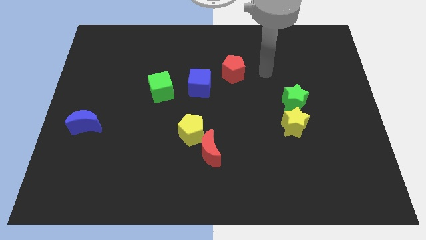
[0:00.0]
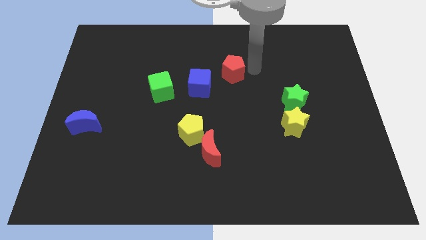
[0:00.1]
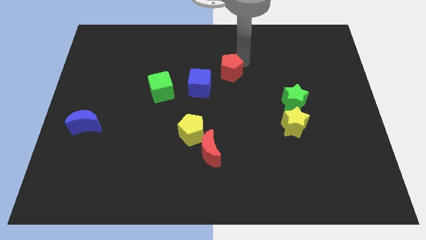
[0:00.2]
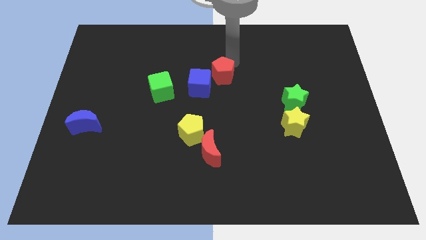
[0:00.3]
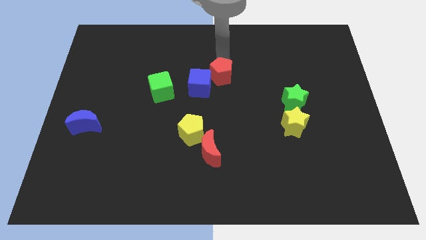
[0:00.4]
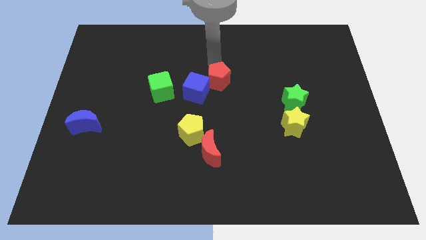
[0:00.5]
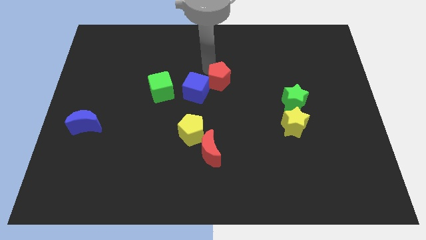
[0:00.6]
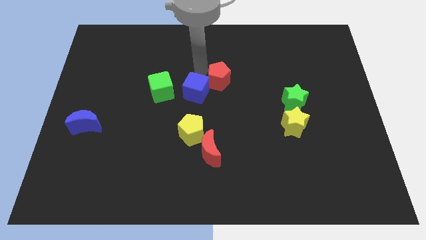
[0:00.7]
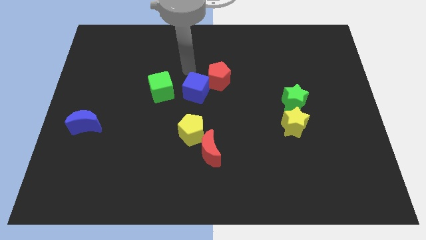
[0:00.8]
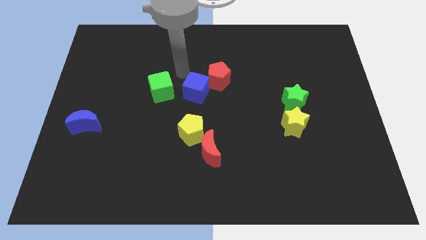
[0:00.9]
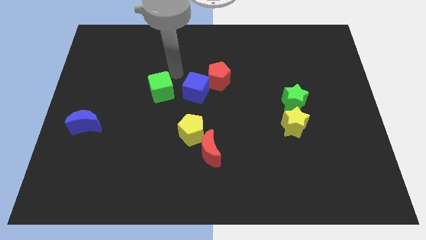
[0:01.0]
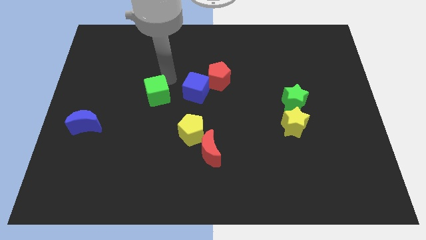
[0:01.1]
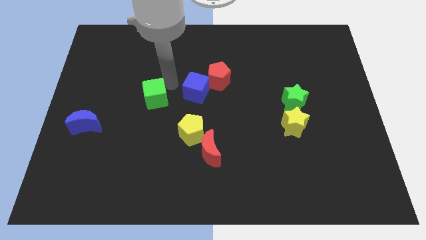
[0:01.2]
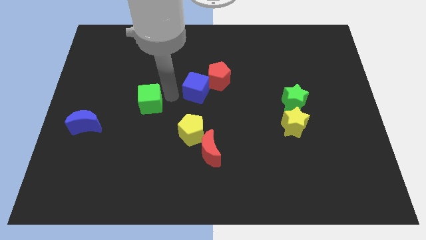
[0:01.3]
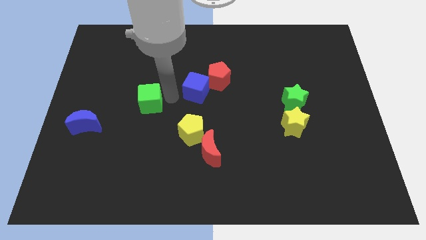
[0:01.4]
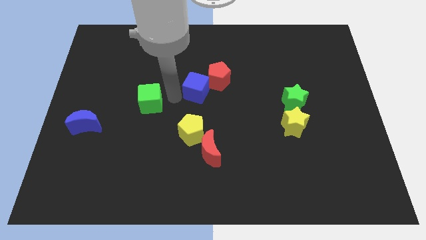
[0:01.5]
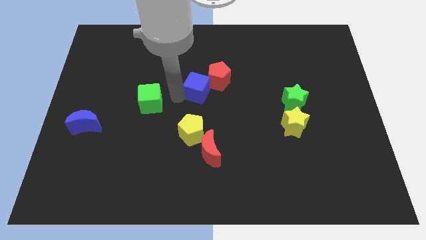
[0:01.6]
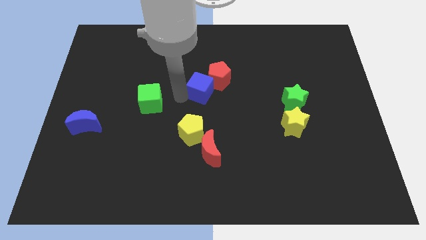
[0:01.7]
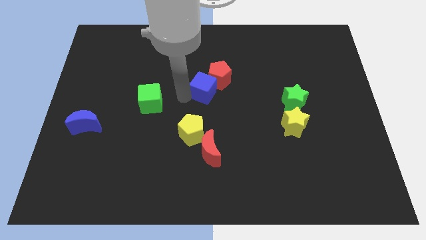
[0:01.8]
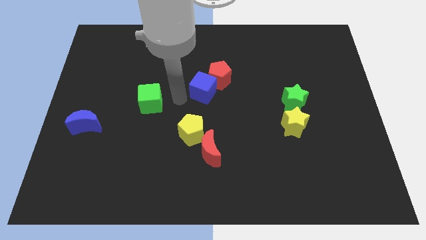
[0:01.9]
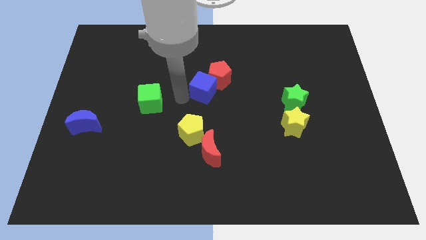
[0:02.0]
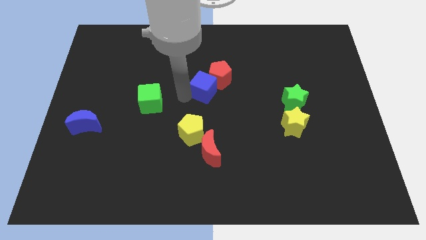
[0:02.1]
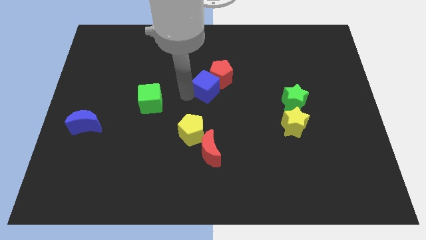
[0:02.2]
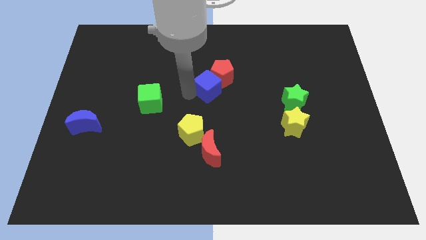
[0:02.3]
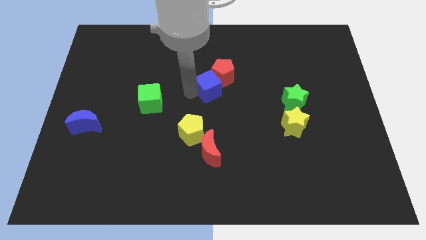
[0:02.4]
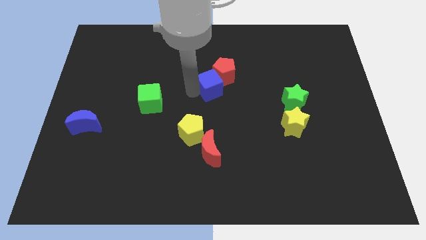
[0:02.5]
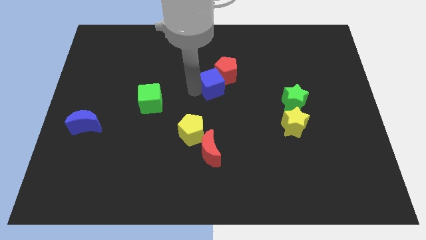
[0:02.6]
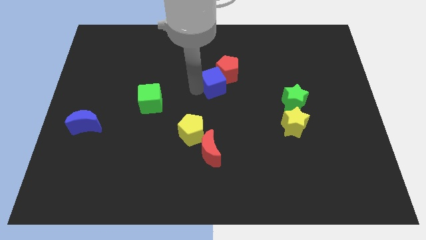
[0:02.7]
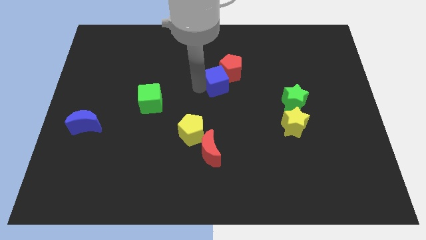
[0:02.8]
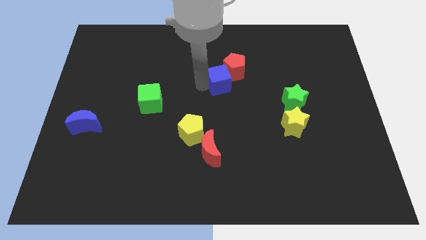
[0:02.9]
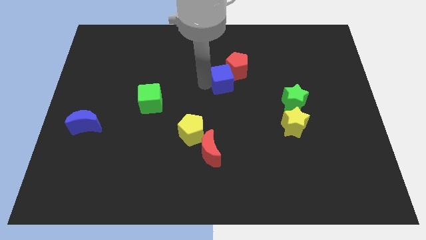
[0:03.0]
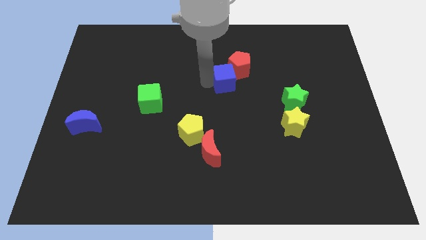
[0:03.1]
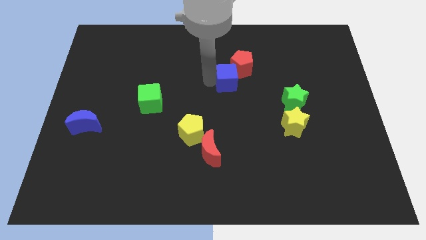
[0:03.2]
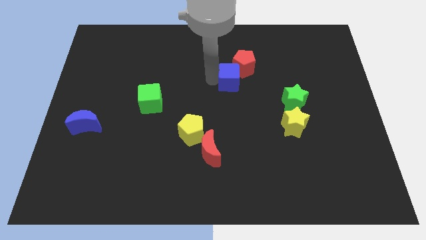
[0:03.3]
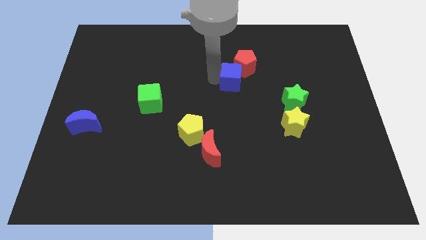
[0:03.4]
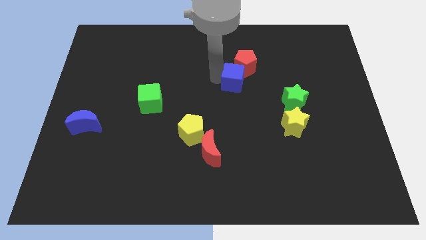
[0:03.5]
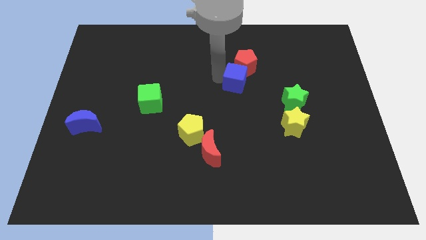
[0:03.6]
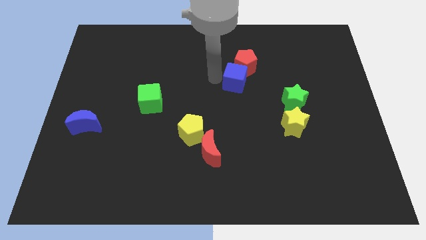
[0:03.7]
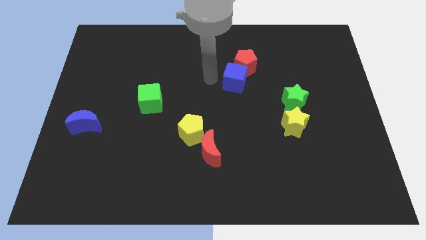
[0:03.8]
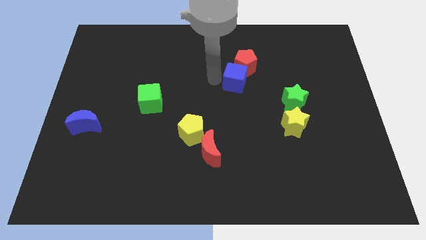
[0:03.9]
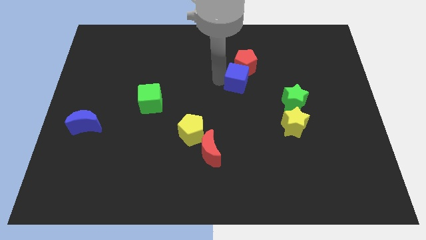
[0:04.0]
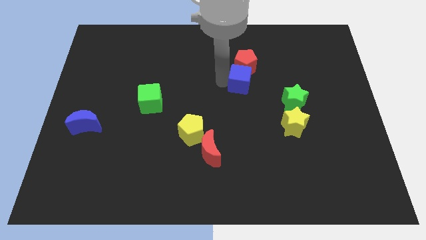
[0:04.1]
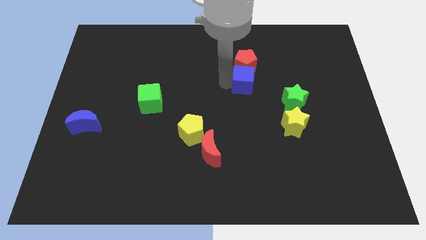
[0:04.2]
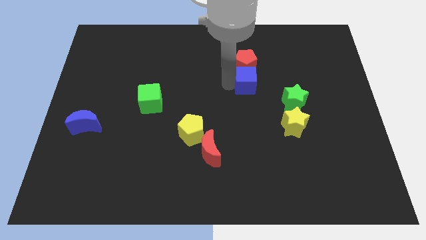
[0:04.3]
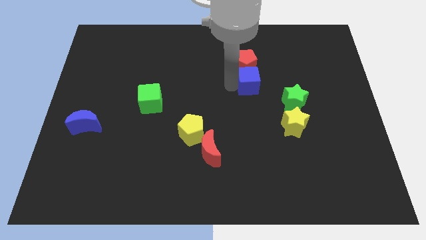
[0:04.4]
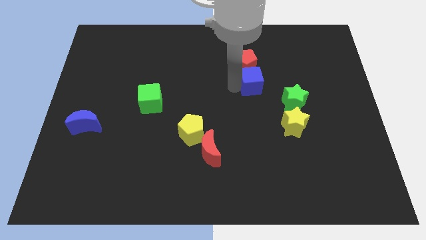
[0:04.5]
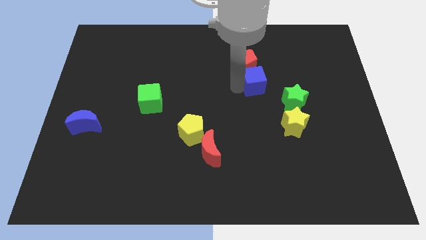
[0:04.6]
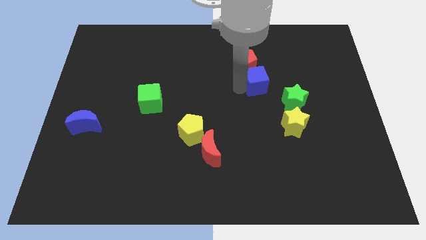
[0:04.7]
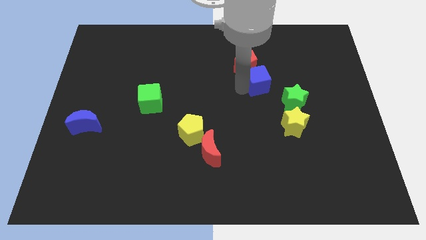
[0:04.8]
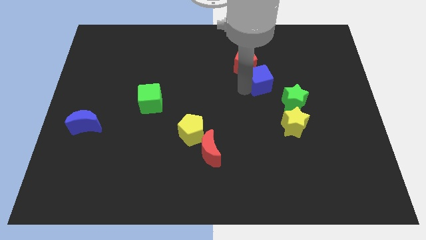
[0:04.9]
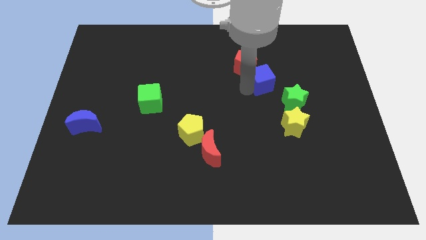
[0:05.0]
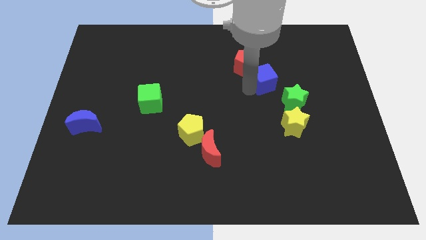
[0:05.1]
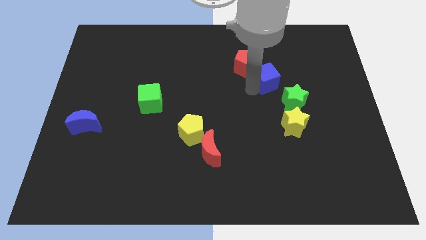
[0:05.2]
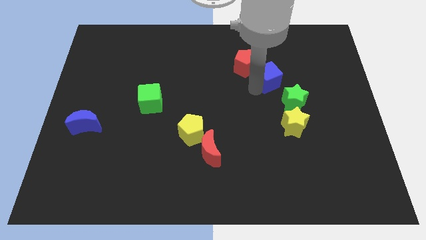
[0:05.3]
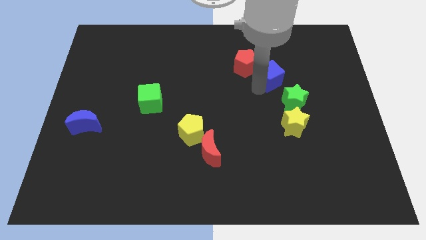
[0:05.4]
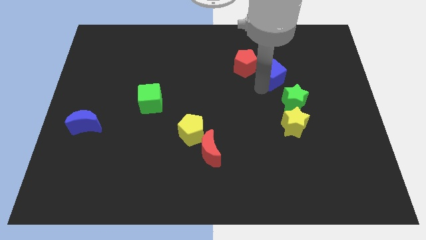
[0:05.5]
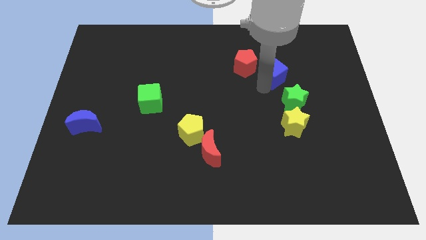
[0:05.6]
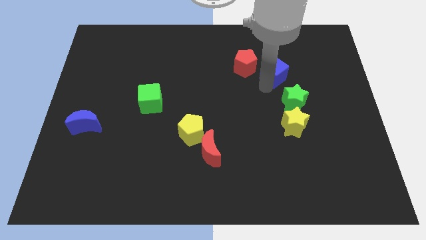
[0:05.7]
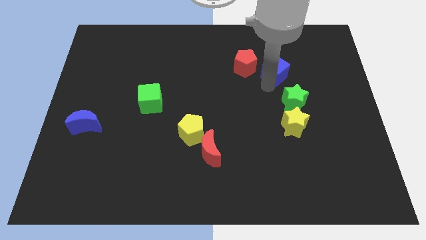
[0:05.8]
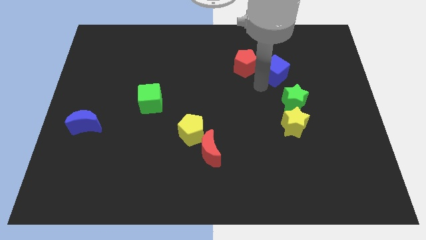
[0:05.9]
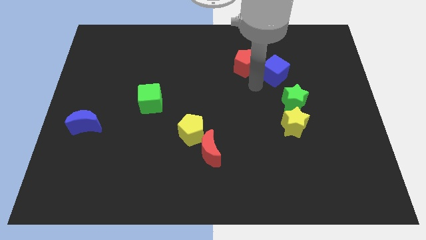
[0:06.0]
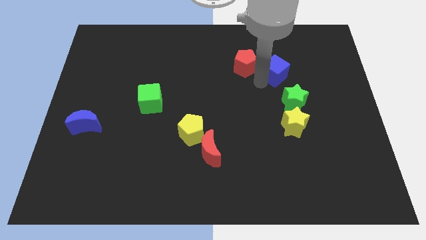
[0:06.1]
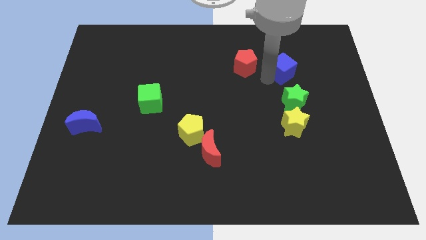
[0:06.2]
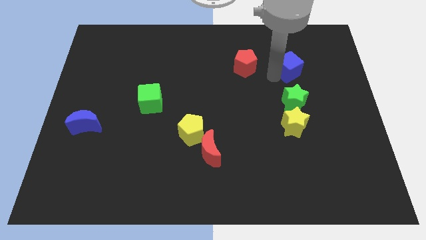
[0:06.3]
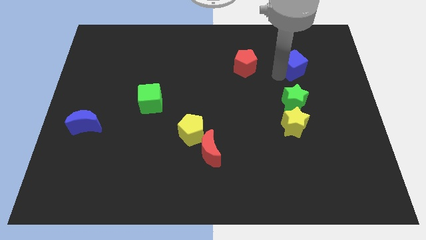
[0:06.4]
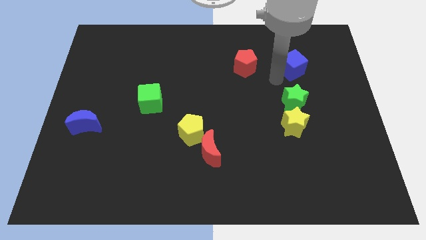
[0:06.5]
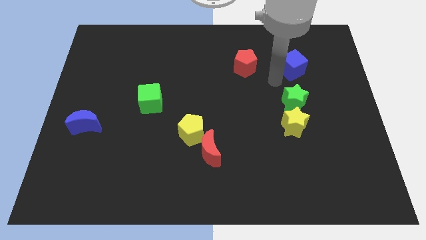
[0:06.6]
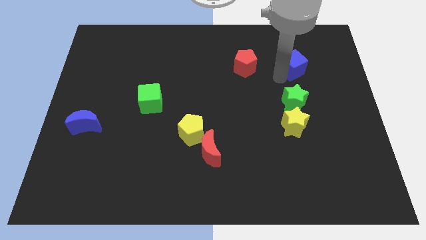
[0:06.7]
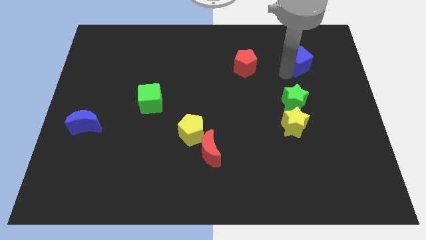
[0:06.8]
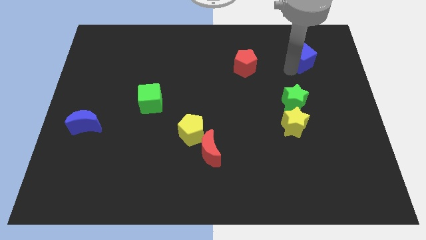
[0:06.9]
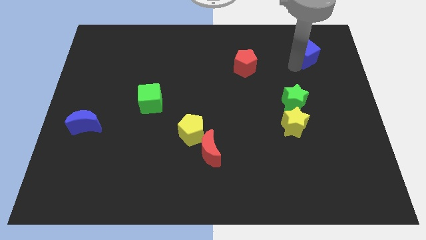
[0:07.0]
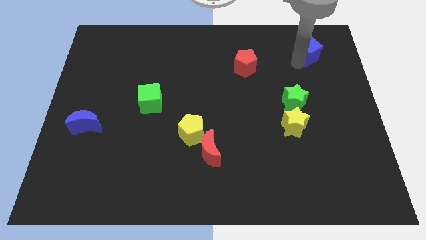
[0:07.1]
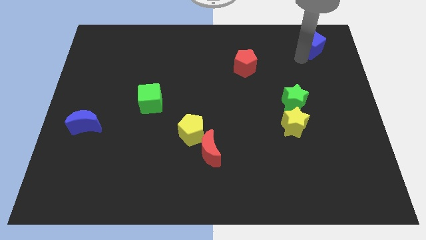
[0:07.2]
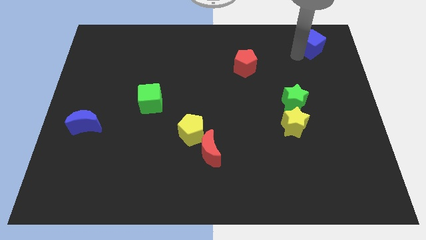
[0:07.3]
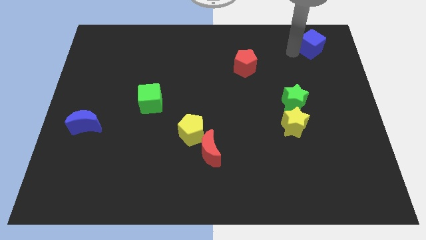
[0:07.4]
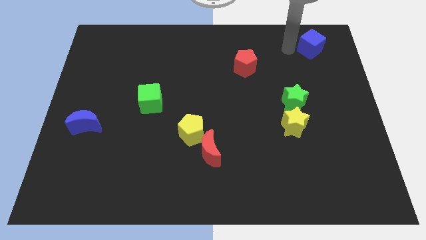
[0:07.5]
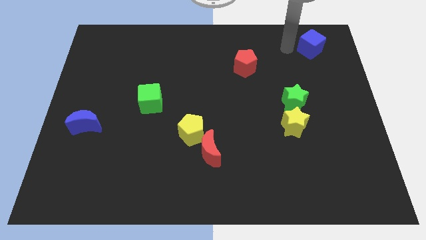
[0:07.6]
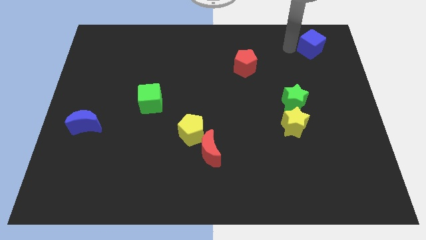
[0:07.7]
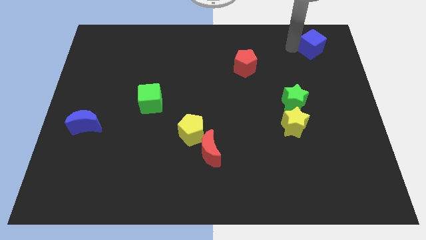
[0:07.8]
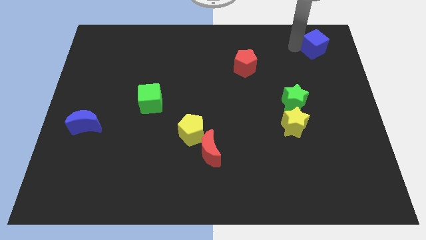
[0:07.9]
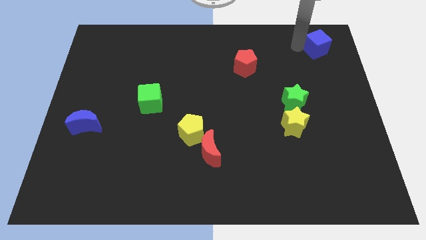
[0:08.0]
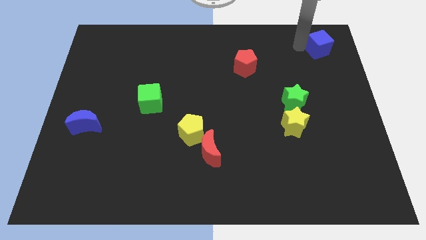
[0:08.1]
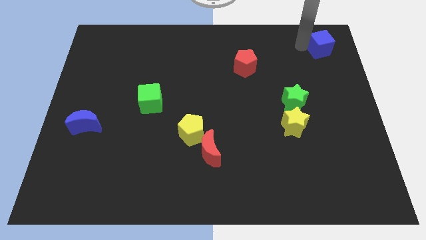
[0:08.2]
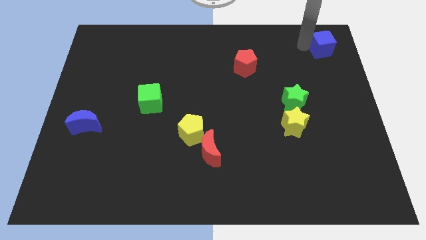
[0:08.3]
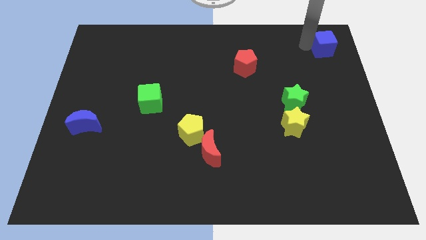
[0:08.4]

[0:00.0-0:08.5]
push the blue cube to the upper right corner
